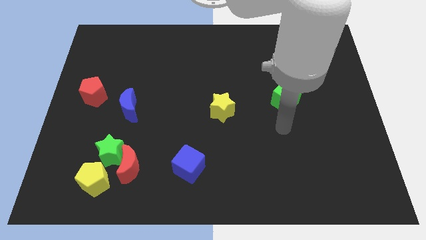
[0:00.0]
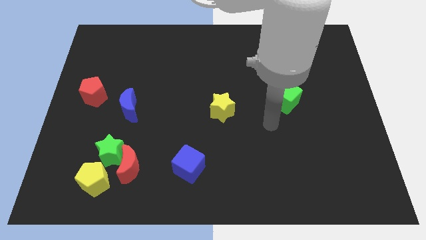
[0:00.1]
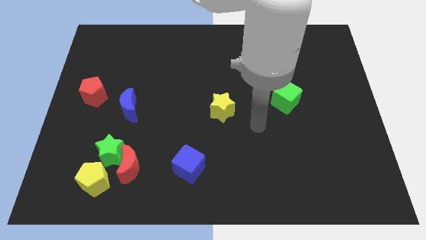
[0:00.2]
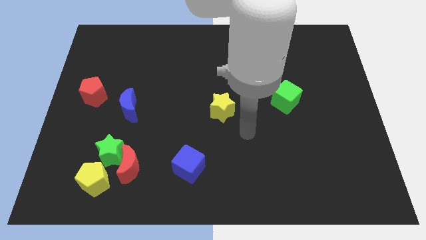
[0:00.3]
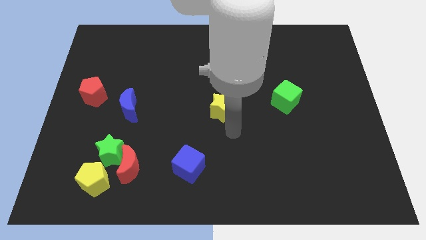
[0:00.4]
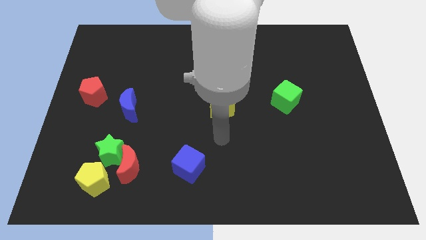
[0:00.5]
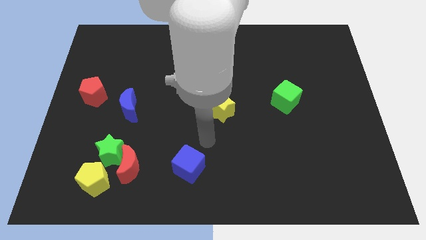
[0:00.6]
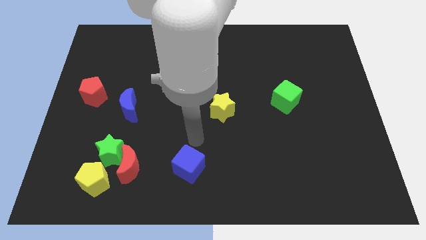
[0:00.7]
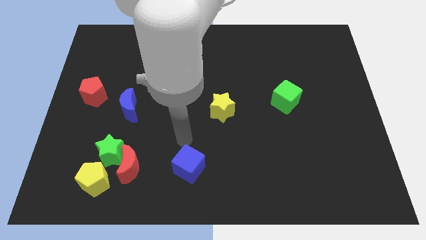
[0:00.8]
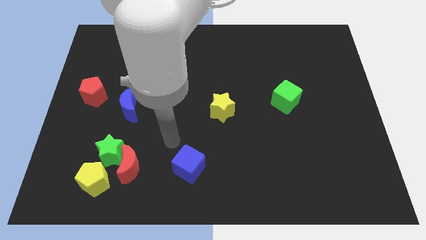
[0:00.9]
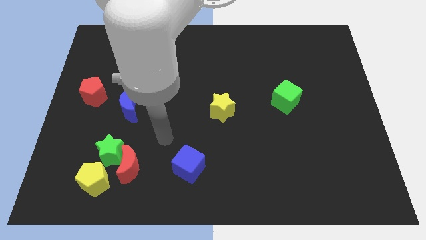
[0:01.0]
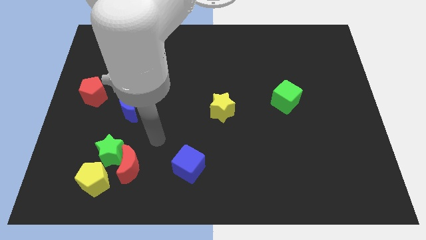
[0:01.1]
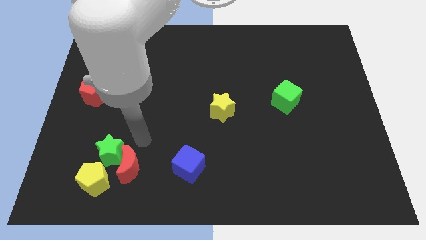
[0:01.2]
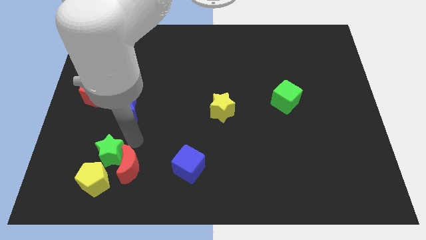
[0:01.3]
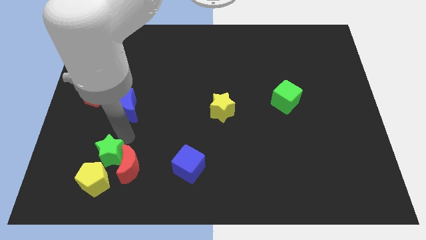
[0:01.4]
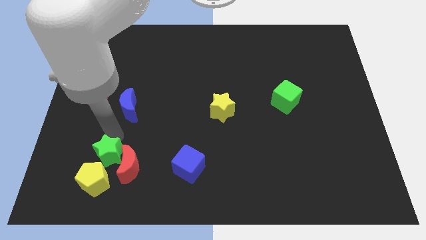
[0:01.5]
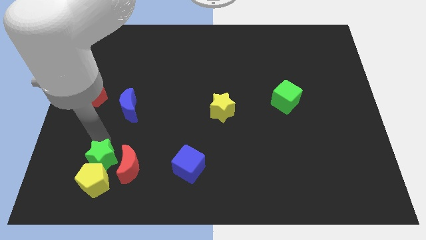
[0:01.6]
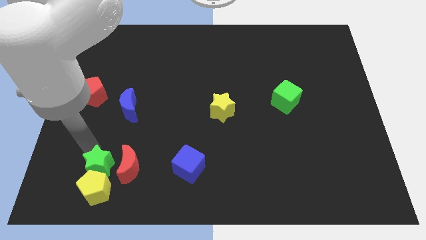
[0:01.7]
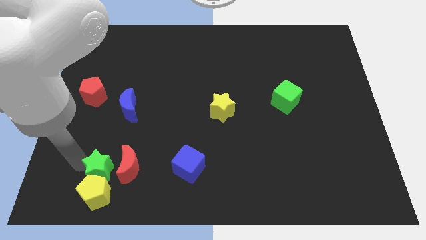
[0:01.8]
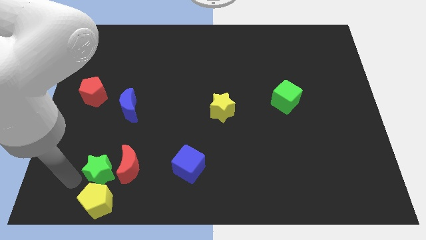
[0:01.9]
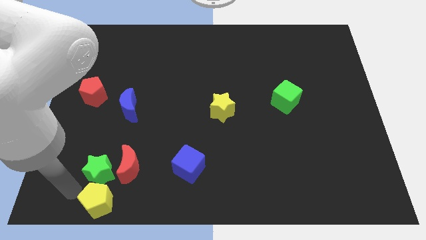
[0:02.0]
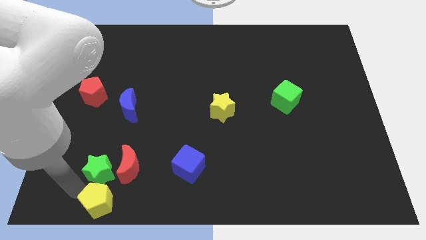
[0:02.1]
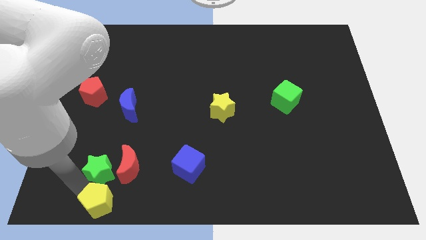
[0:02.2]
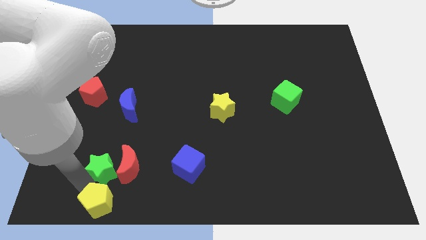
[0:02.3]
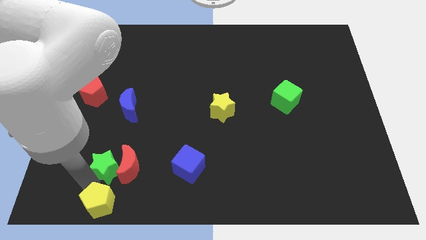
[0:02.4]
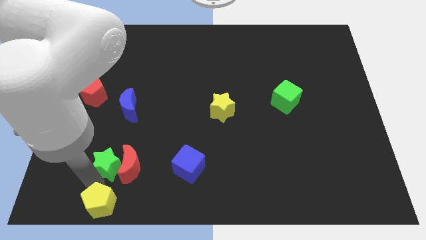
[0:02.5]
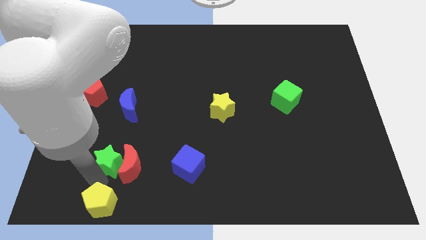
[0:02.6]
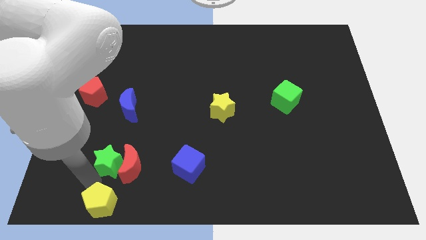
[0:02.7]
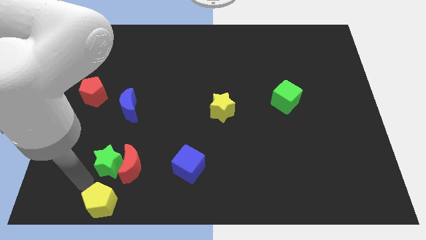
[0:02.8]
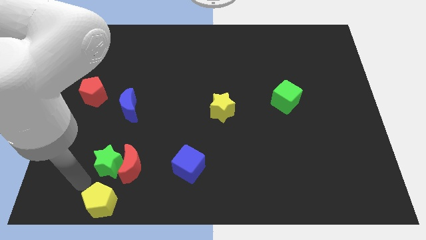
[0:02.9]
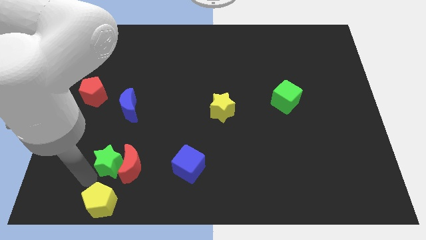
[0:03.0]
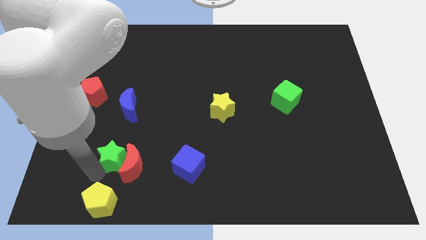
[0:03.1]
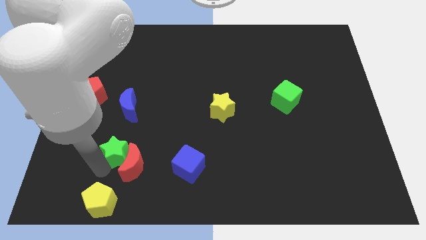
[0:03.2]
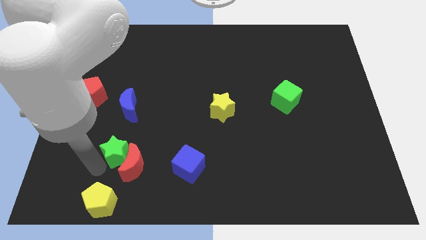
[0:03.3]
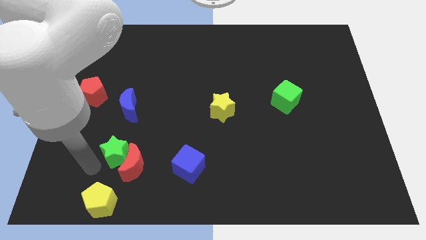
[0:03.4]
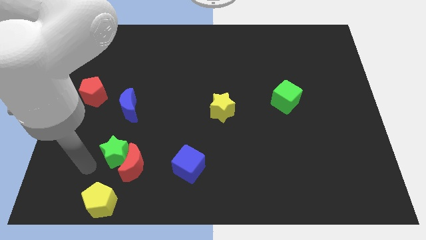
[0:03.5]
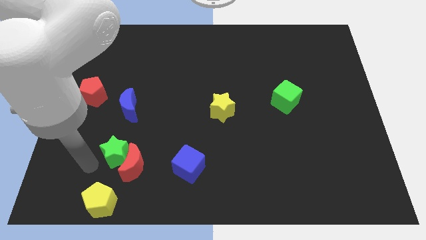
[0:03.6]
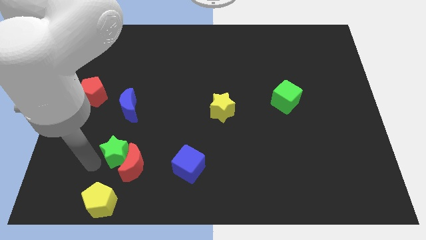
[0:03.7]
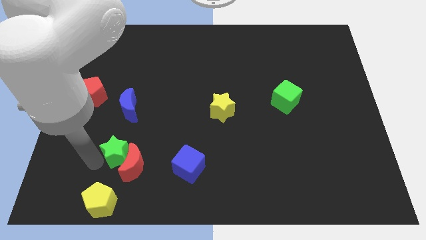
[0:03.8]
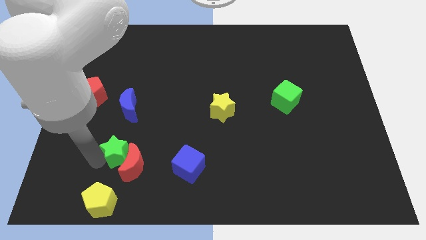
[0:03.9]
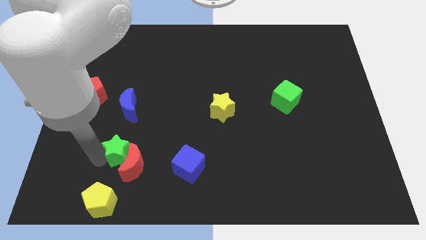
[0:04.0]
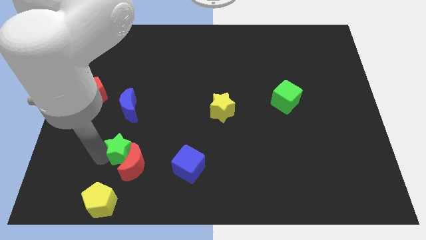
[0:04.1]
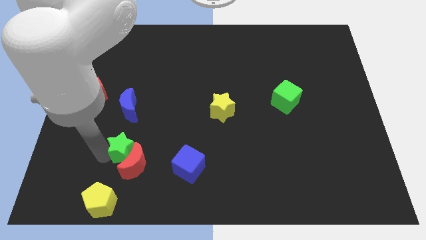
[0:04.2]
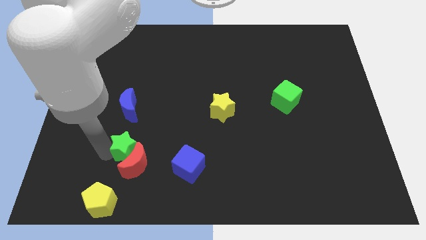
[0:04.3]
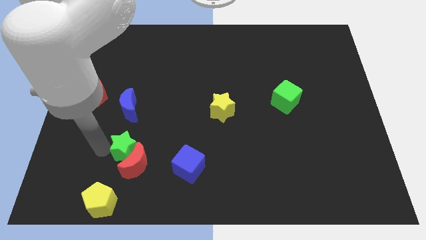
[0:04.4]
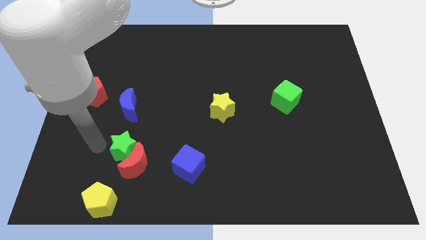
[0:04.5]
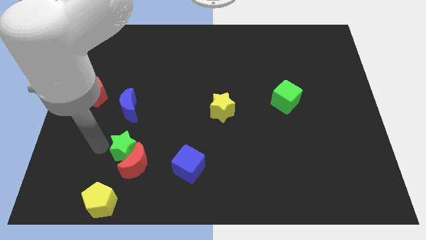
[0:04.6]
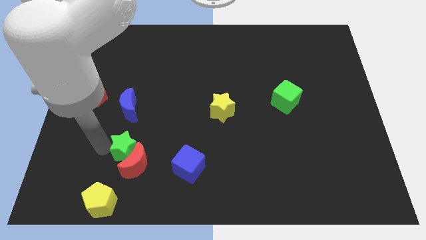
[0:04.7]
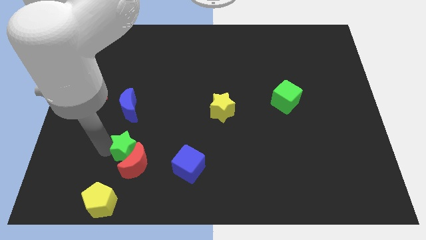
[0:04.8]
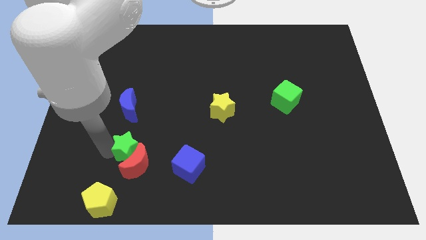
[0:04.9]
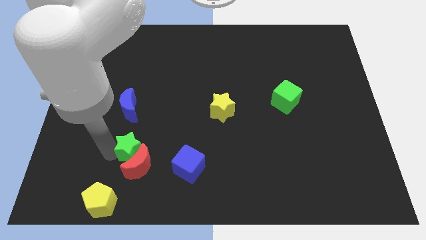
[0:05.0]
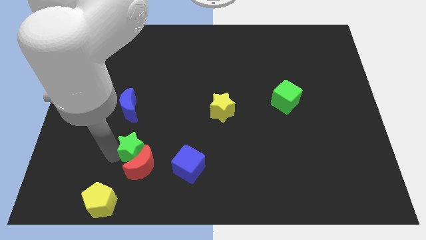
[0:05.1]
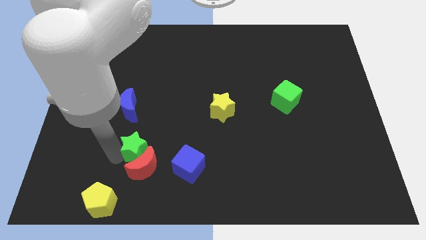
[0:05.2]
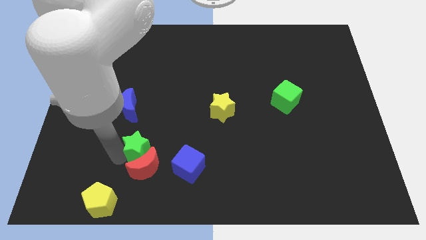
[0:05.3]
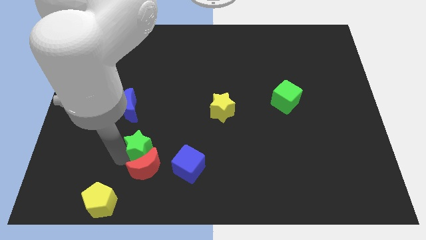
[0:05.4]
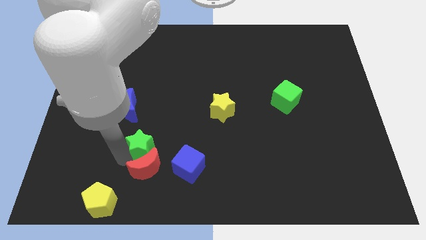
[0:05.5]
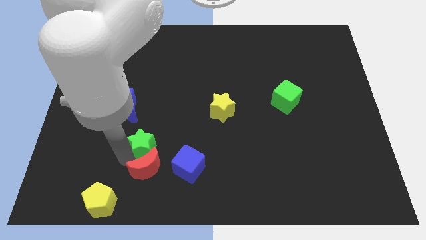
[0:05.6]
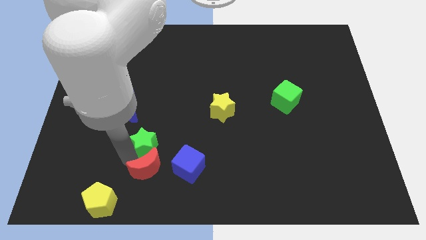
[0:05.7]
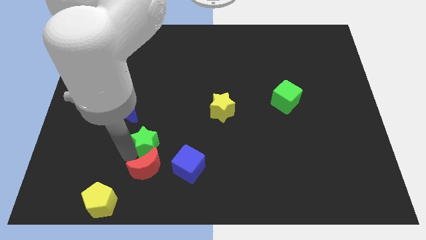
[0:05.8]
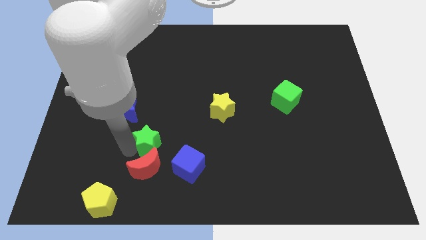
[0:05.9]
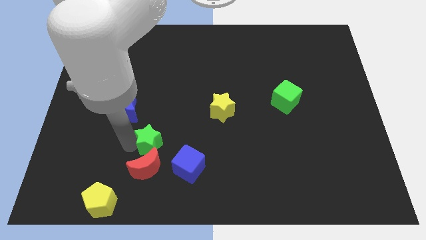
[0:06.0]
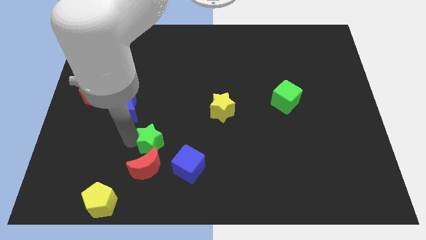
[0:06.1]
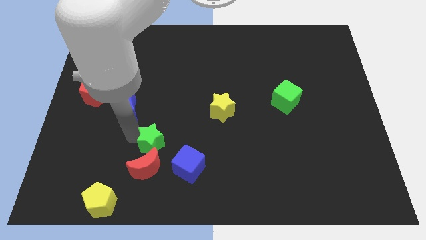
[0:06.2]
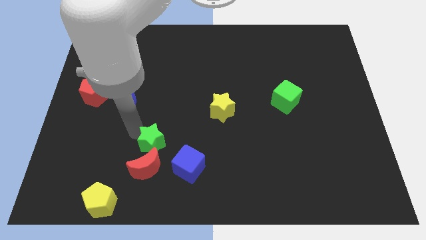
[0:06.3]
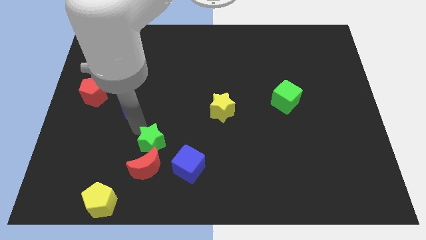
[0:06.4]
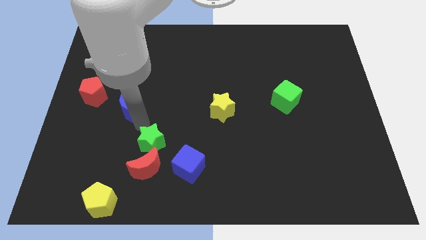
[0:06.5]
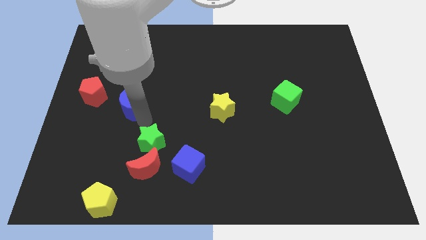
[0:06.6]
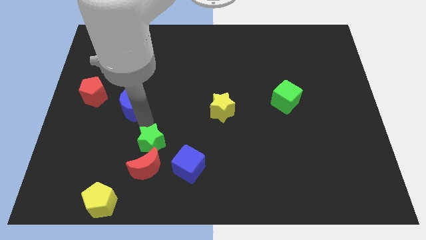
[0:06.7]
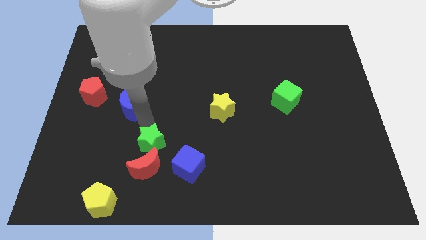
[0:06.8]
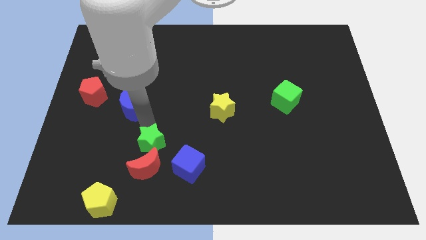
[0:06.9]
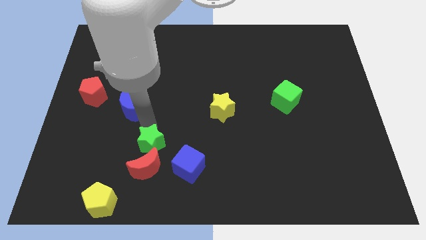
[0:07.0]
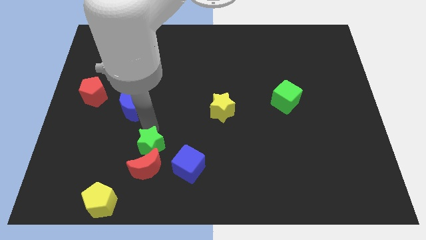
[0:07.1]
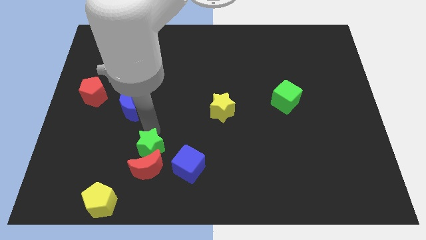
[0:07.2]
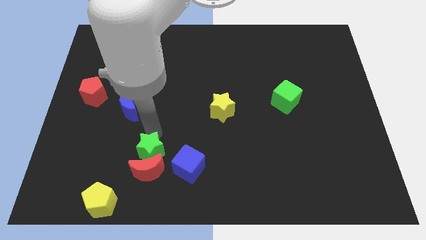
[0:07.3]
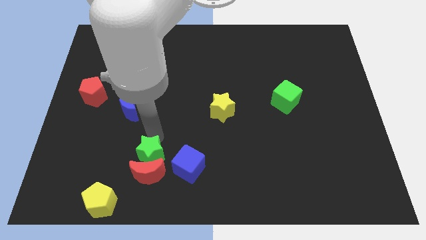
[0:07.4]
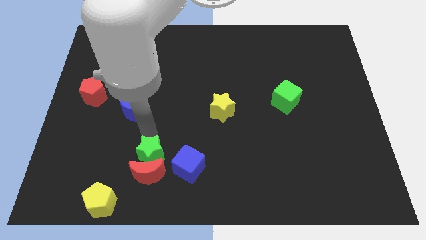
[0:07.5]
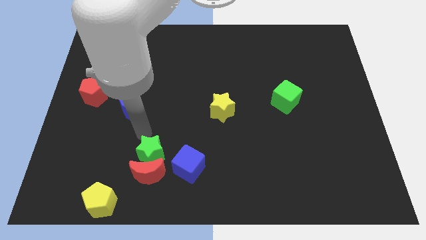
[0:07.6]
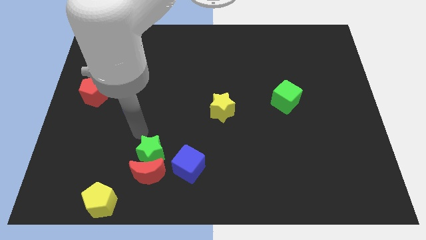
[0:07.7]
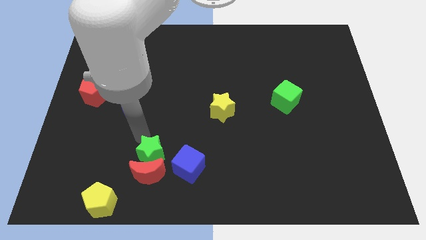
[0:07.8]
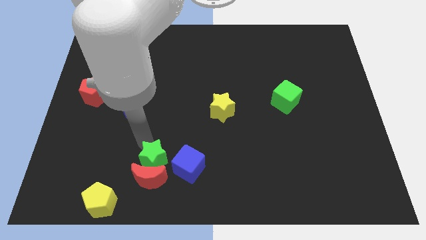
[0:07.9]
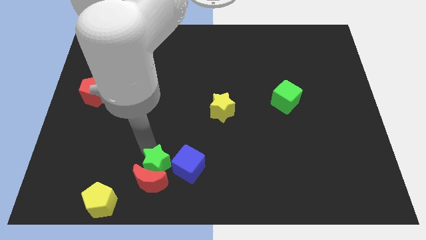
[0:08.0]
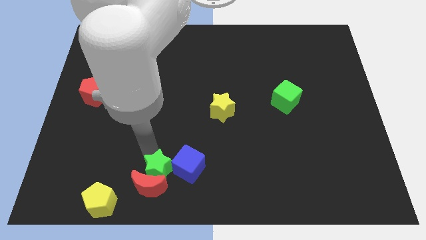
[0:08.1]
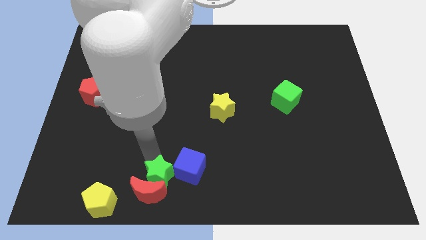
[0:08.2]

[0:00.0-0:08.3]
push the green star to the bottom side
